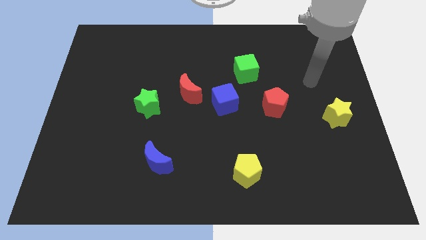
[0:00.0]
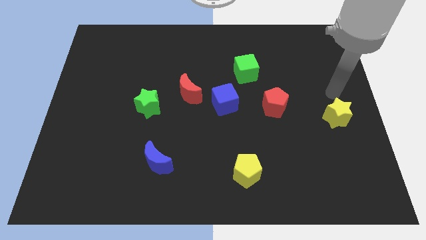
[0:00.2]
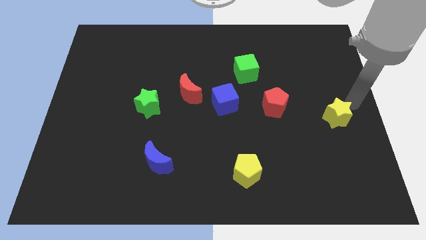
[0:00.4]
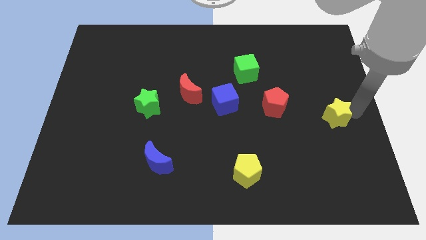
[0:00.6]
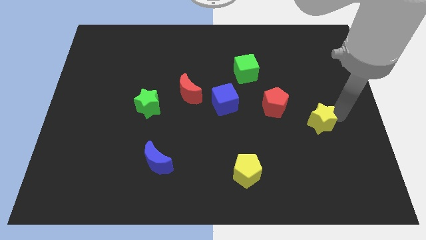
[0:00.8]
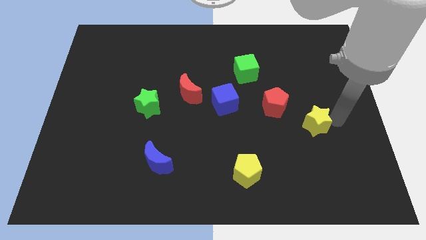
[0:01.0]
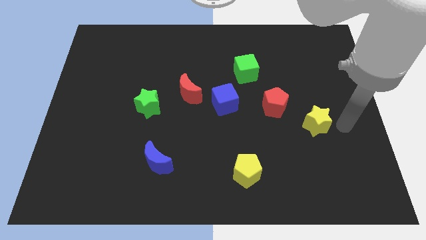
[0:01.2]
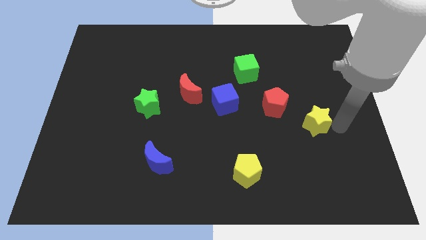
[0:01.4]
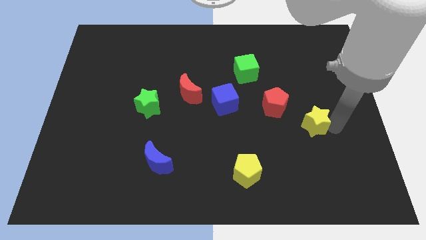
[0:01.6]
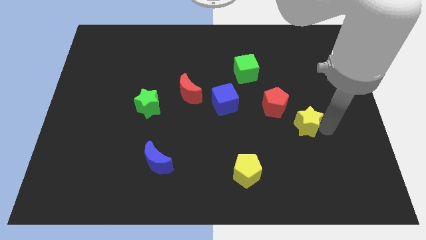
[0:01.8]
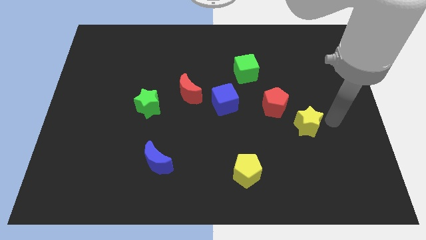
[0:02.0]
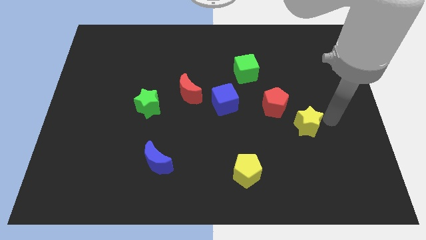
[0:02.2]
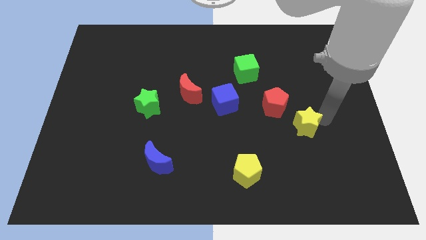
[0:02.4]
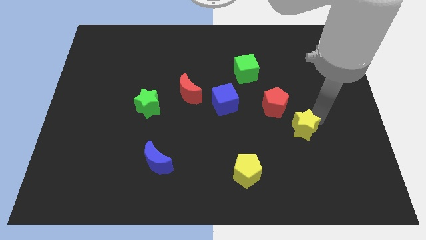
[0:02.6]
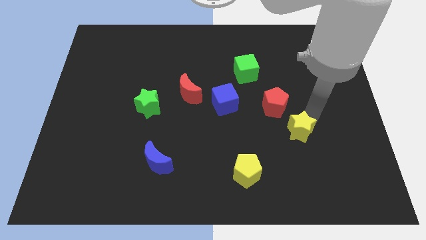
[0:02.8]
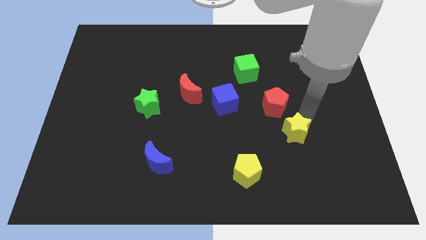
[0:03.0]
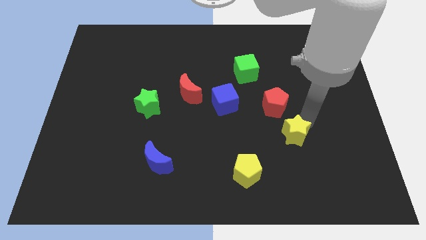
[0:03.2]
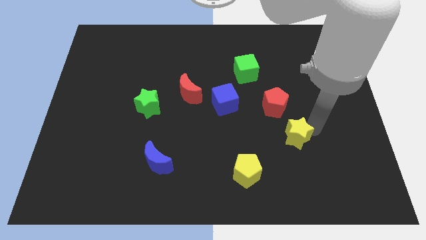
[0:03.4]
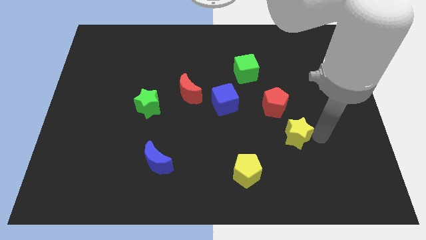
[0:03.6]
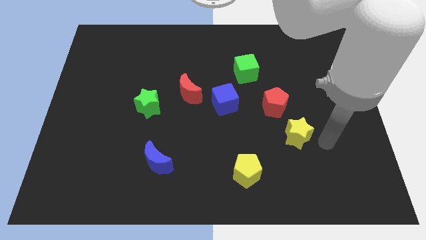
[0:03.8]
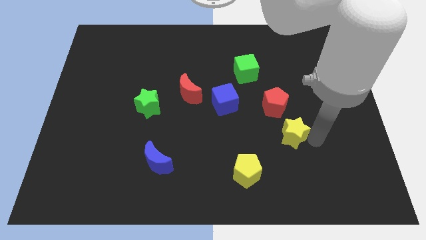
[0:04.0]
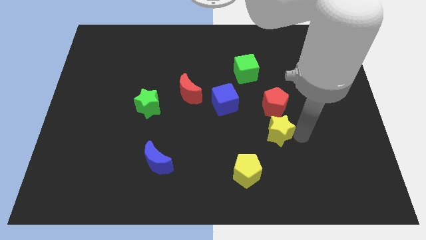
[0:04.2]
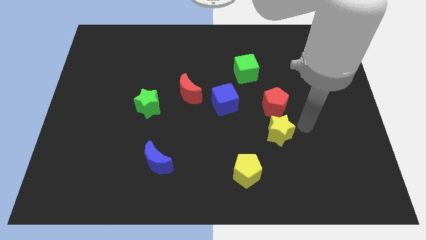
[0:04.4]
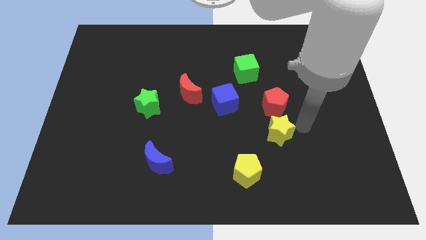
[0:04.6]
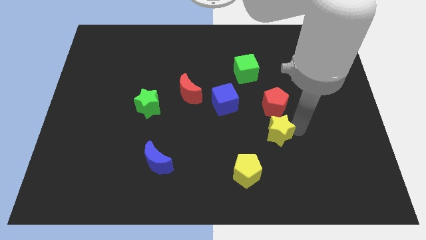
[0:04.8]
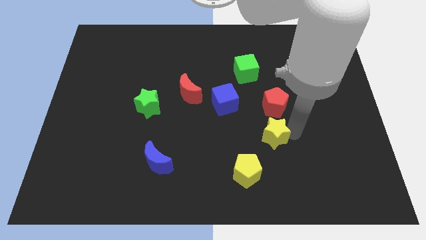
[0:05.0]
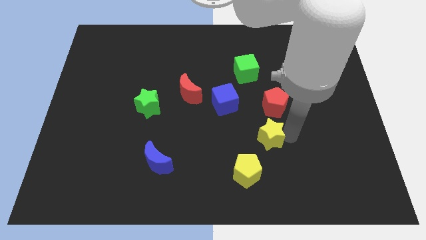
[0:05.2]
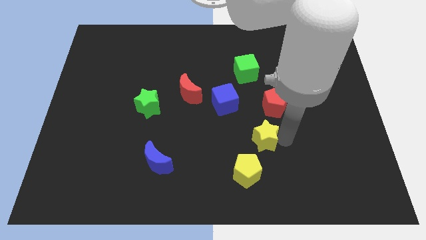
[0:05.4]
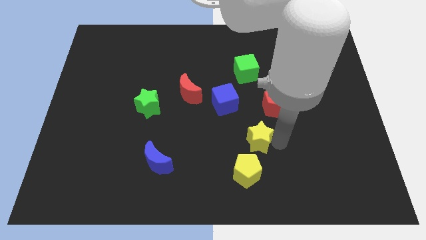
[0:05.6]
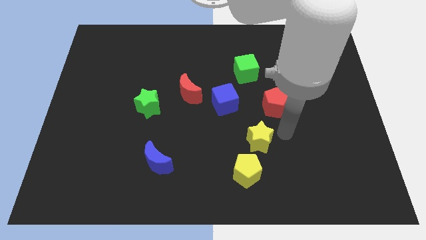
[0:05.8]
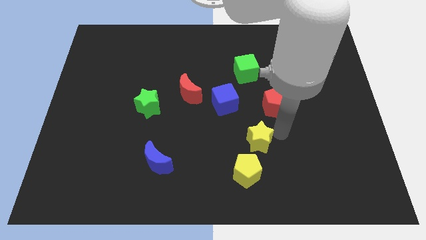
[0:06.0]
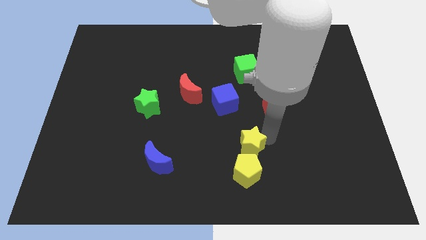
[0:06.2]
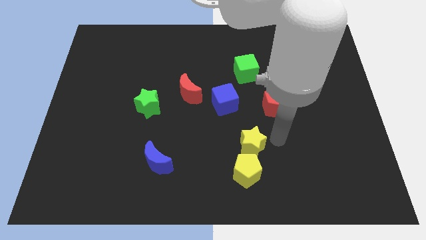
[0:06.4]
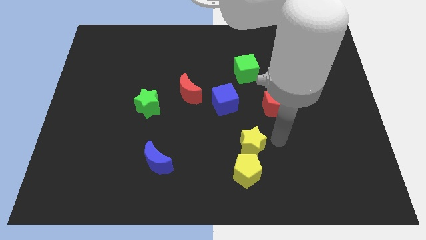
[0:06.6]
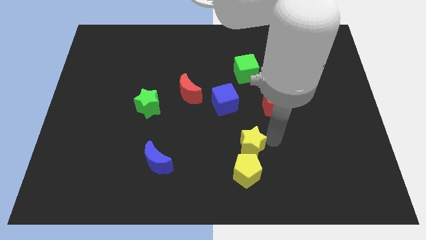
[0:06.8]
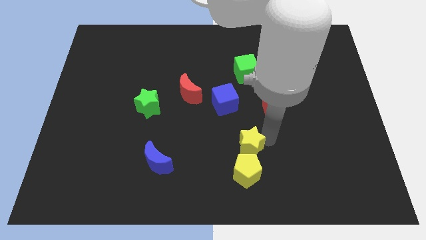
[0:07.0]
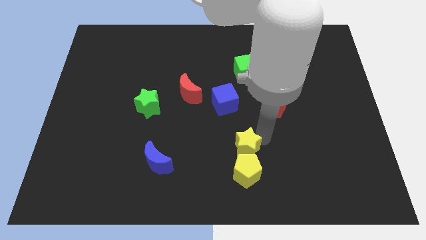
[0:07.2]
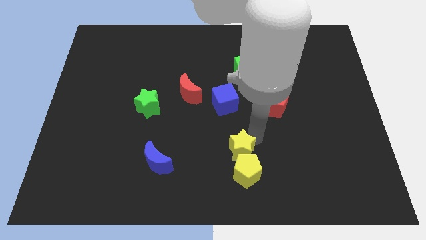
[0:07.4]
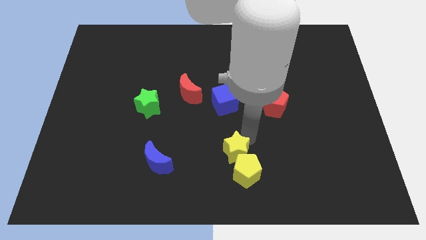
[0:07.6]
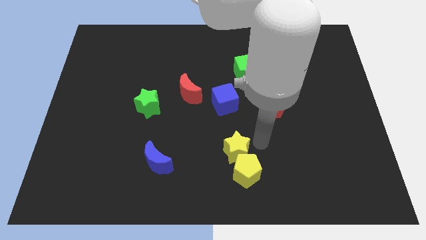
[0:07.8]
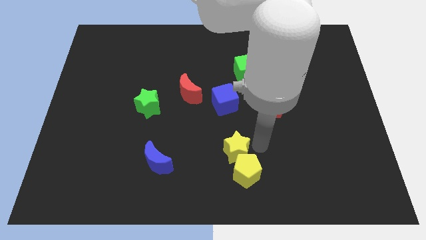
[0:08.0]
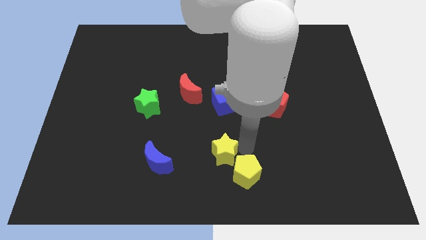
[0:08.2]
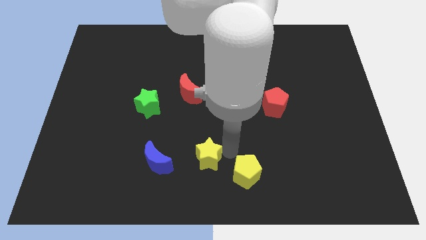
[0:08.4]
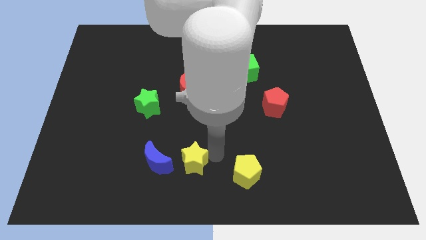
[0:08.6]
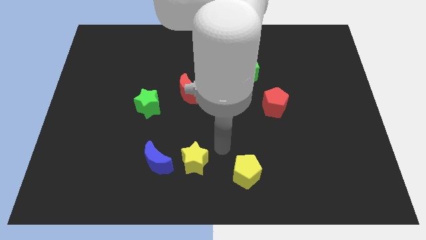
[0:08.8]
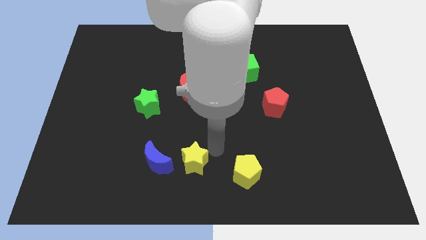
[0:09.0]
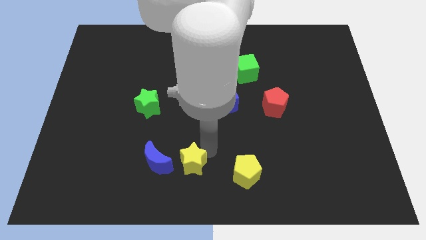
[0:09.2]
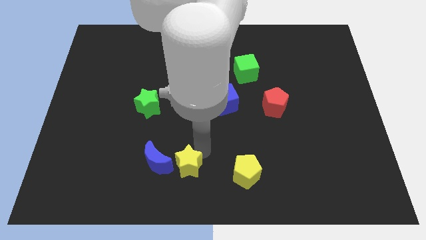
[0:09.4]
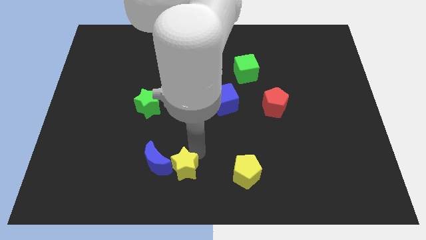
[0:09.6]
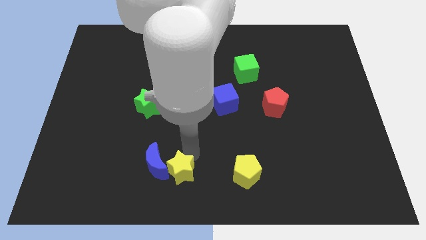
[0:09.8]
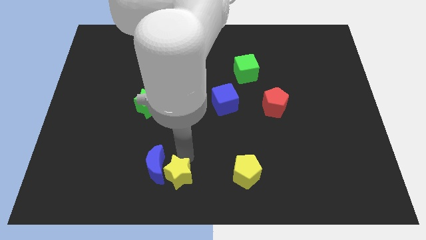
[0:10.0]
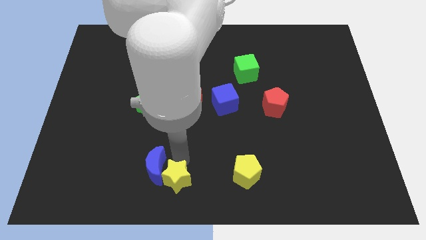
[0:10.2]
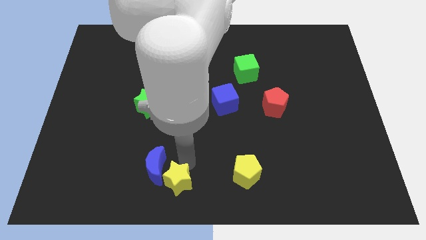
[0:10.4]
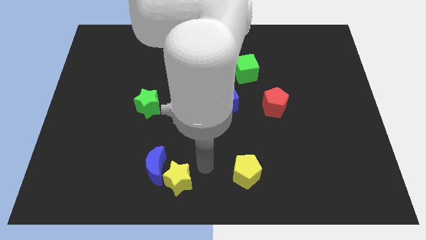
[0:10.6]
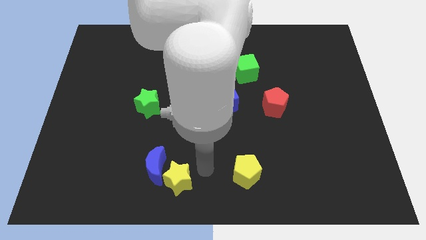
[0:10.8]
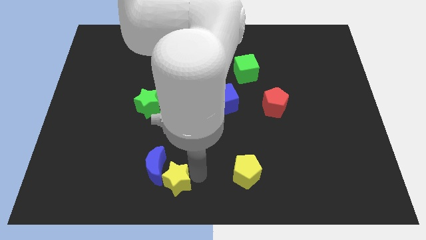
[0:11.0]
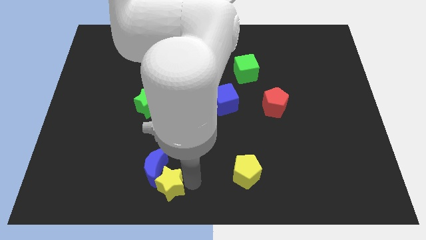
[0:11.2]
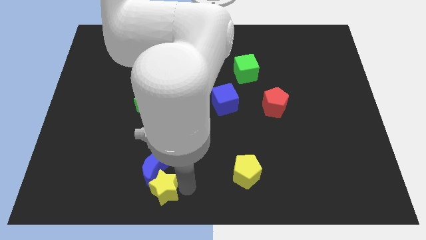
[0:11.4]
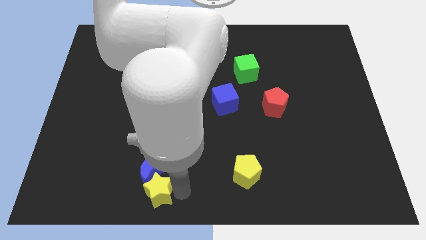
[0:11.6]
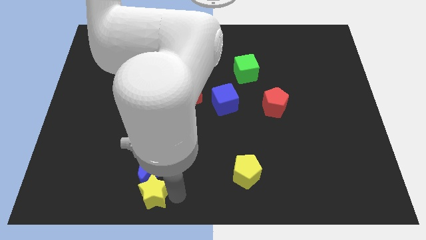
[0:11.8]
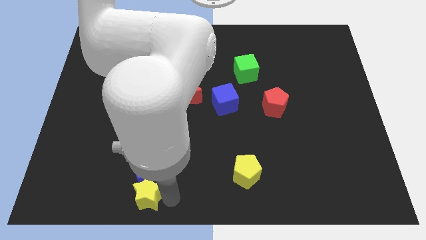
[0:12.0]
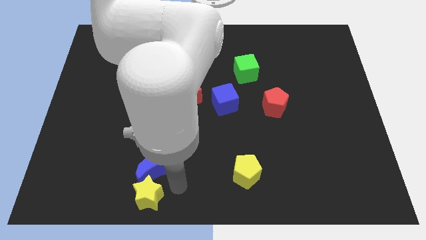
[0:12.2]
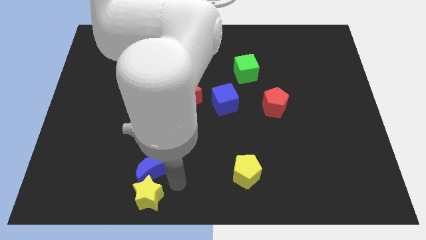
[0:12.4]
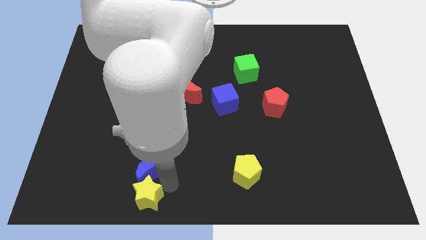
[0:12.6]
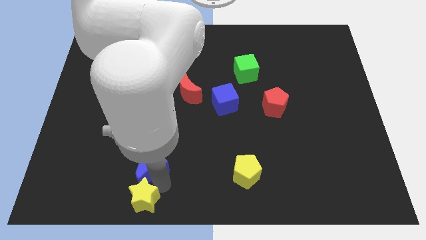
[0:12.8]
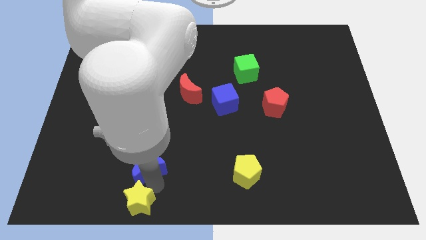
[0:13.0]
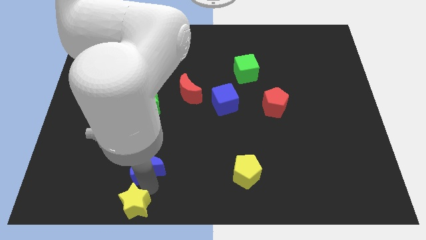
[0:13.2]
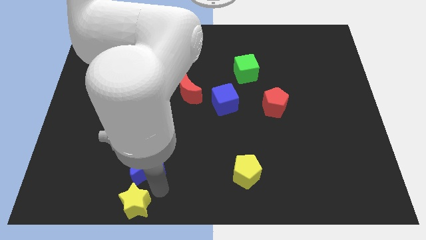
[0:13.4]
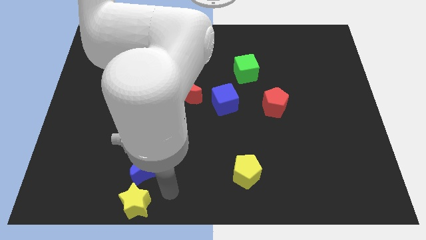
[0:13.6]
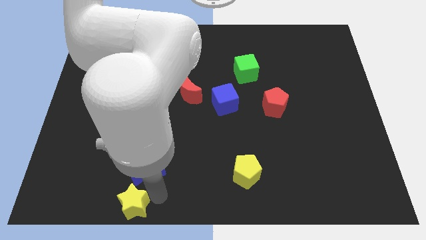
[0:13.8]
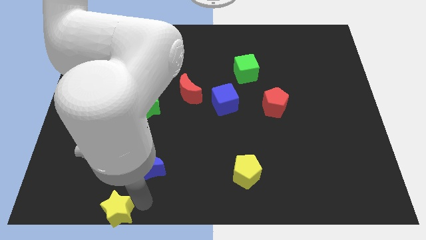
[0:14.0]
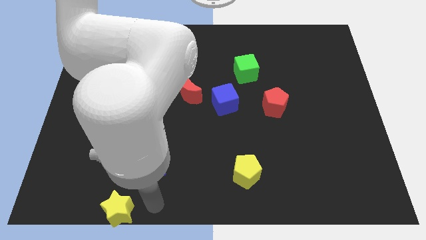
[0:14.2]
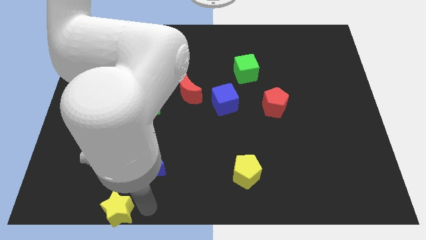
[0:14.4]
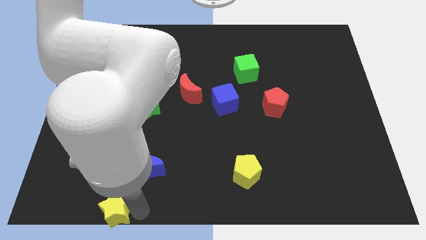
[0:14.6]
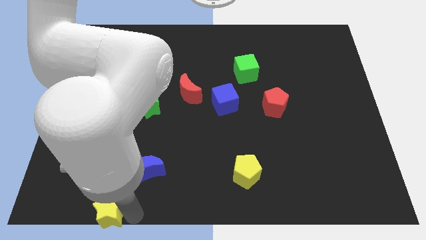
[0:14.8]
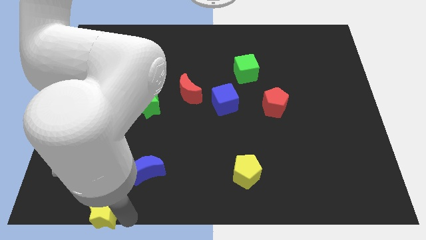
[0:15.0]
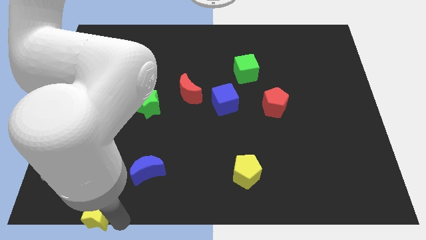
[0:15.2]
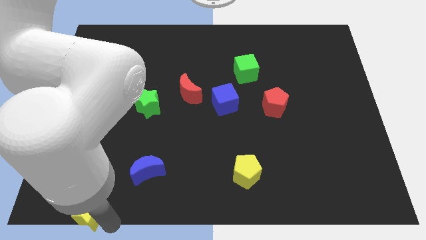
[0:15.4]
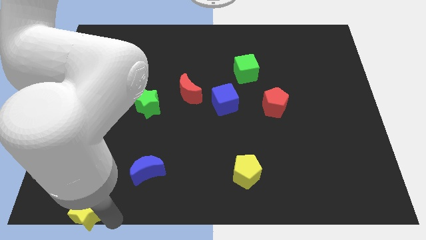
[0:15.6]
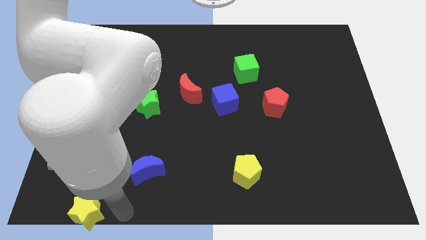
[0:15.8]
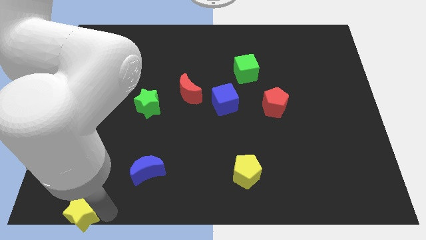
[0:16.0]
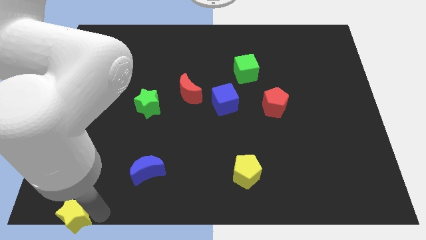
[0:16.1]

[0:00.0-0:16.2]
push the yellow star to the bottom left of the board

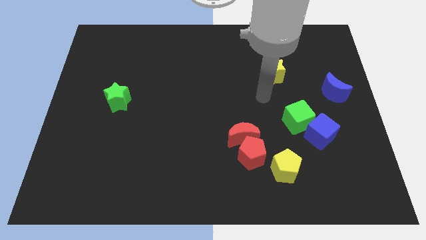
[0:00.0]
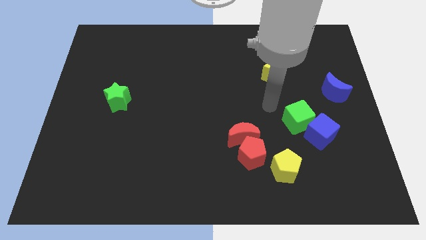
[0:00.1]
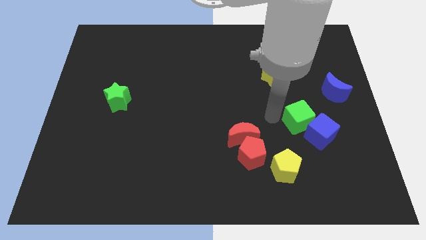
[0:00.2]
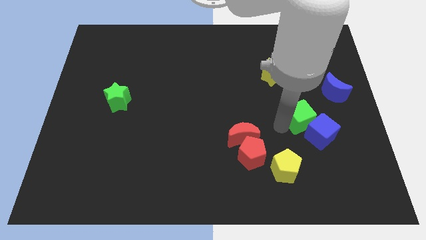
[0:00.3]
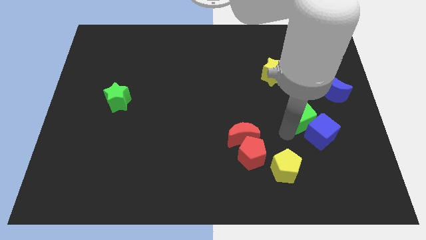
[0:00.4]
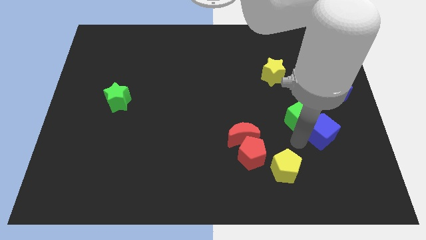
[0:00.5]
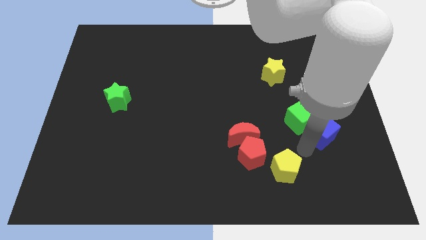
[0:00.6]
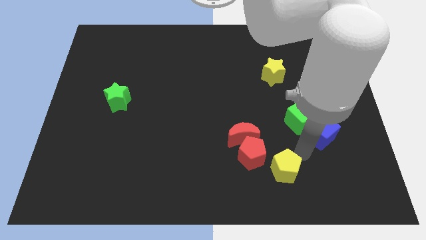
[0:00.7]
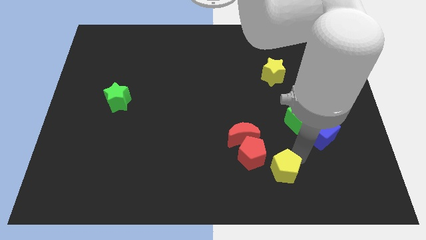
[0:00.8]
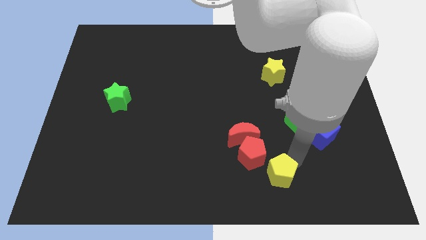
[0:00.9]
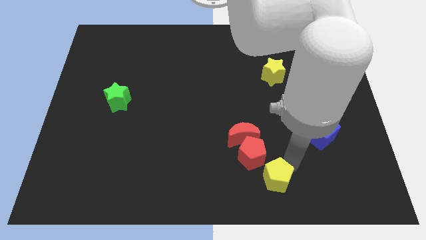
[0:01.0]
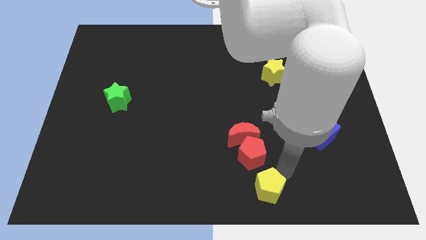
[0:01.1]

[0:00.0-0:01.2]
push the yellow pentagon to the bottom
